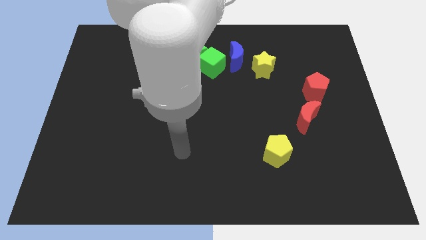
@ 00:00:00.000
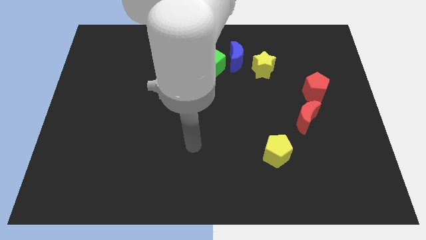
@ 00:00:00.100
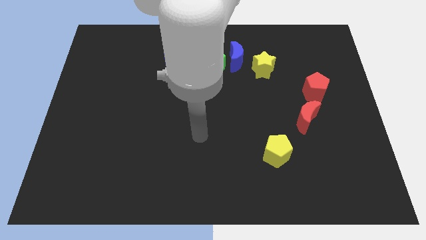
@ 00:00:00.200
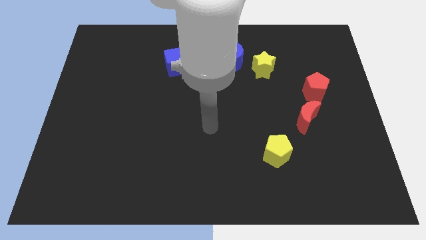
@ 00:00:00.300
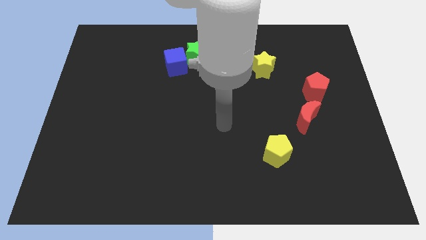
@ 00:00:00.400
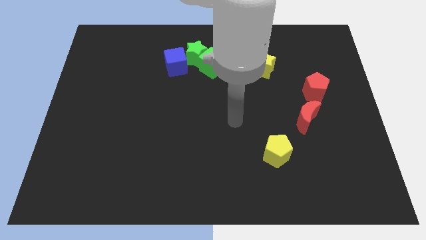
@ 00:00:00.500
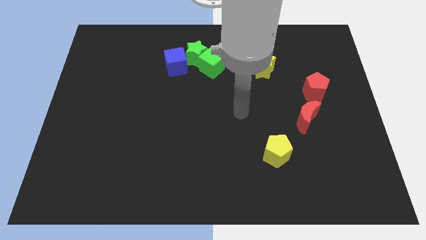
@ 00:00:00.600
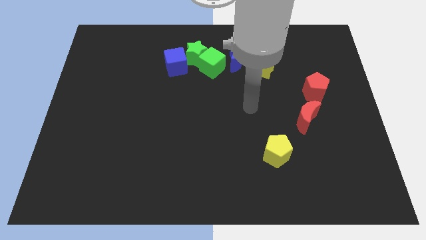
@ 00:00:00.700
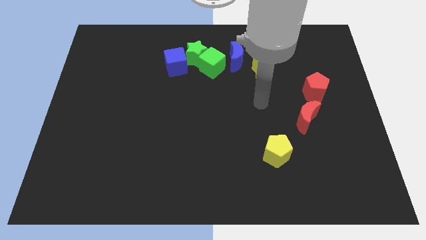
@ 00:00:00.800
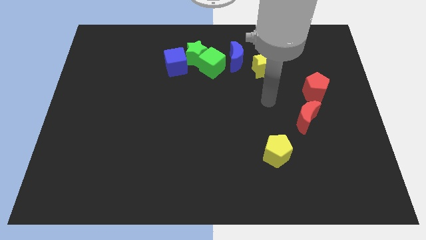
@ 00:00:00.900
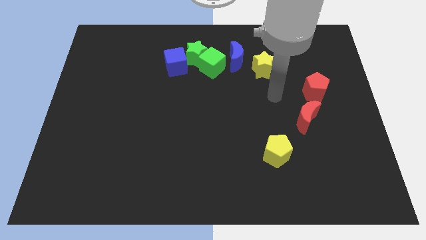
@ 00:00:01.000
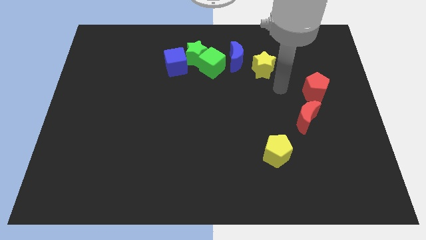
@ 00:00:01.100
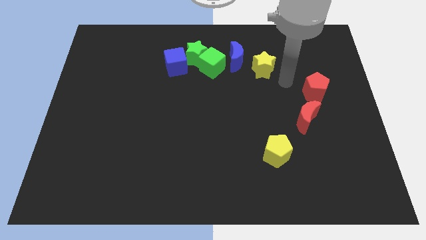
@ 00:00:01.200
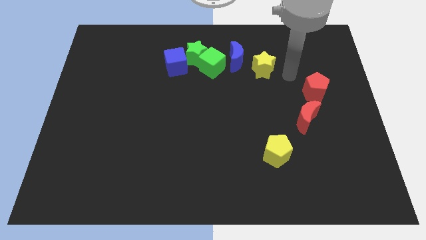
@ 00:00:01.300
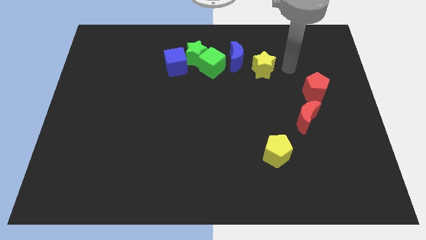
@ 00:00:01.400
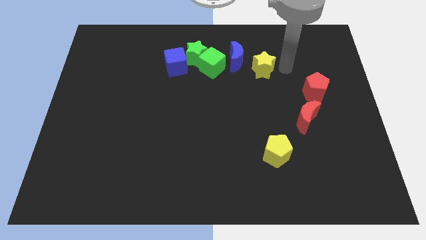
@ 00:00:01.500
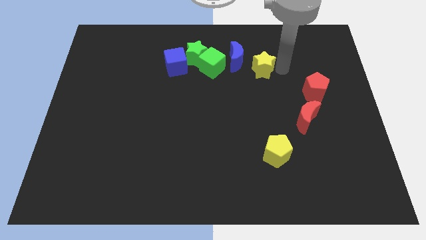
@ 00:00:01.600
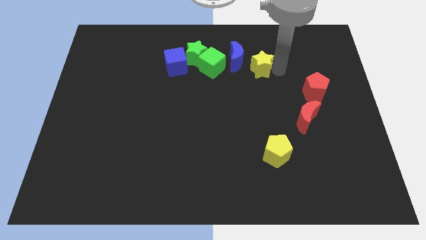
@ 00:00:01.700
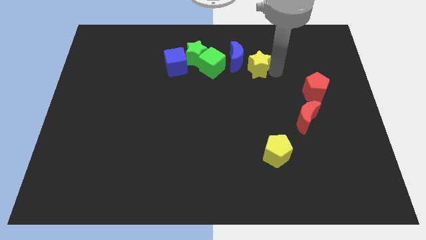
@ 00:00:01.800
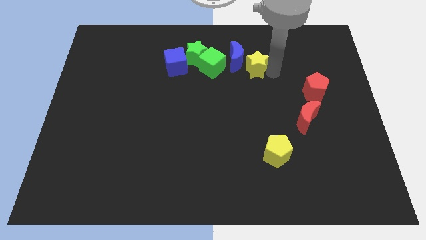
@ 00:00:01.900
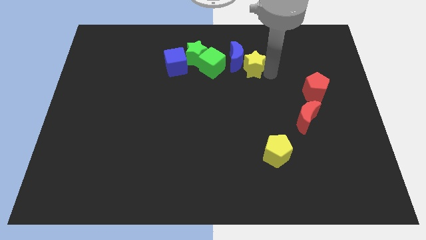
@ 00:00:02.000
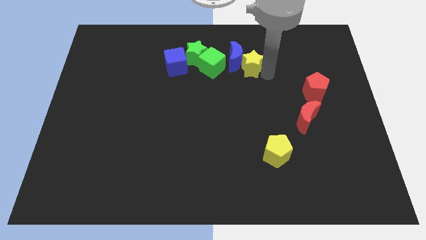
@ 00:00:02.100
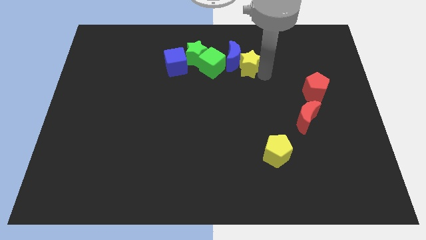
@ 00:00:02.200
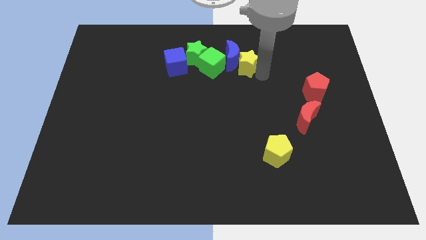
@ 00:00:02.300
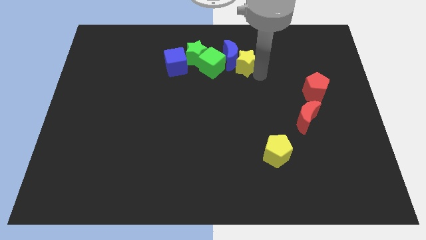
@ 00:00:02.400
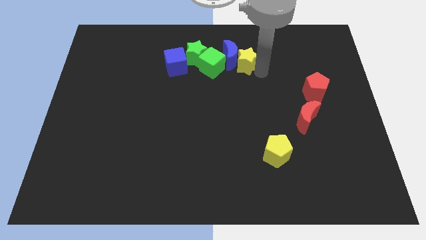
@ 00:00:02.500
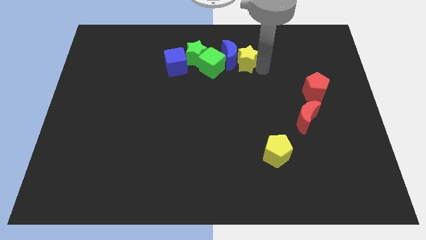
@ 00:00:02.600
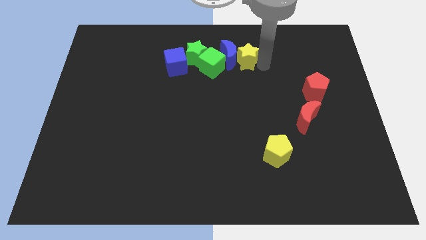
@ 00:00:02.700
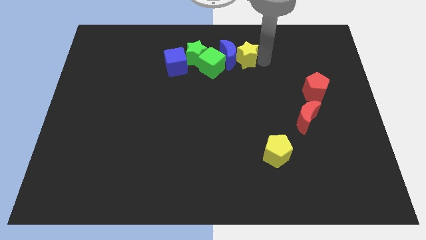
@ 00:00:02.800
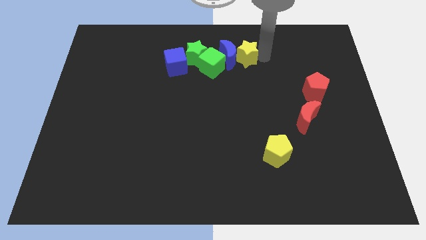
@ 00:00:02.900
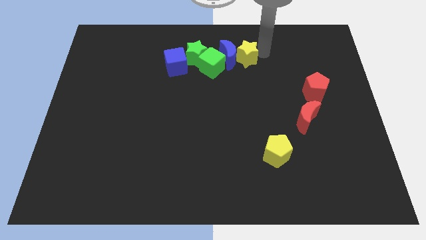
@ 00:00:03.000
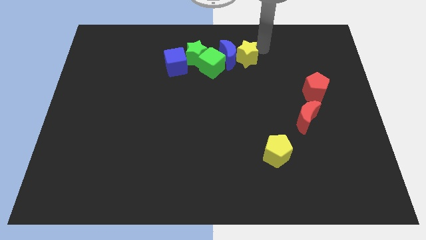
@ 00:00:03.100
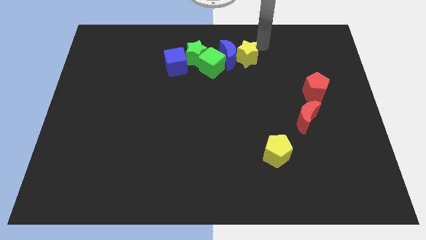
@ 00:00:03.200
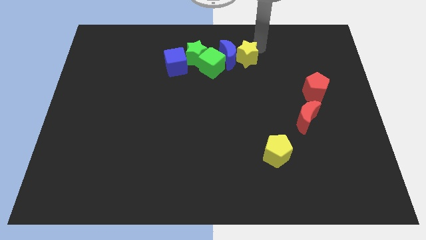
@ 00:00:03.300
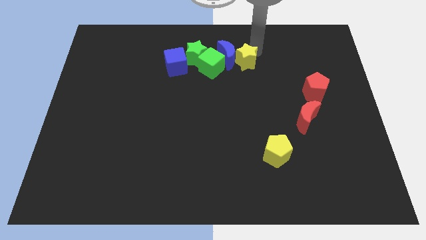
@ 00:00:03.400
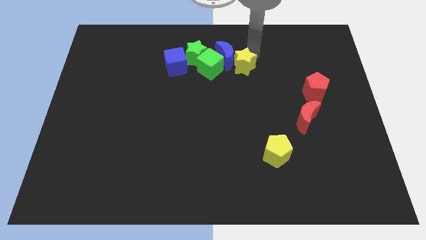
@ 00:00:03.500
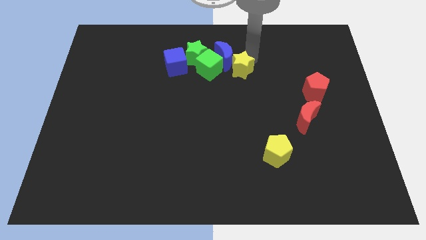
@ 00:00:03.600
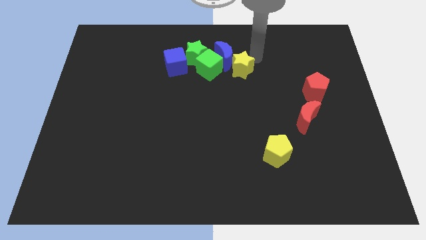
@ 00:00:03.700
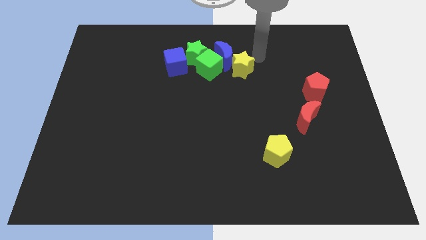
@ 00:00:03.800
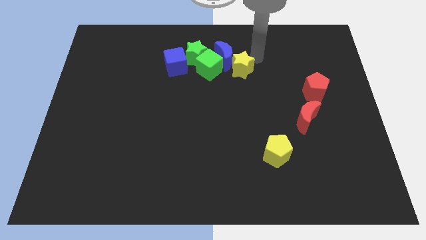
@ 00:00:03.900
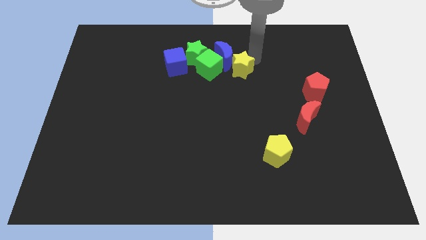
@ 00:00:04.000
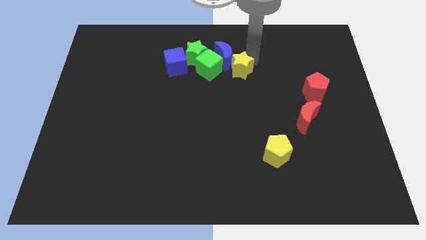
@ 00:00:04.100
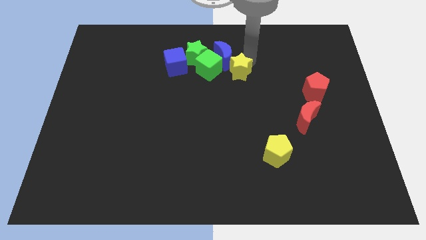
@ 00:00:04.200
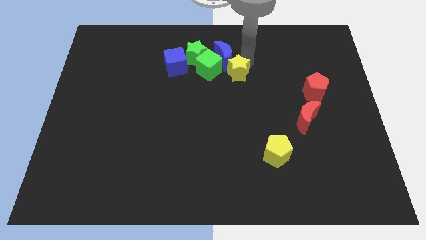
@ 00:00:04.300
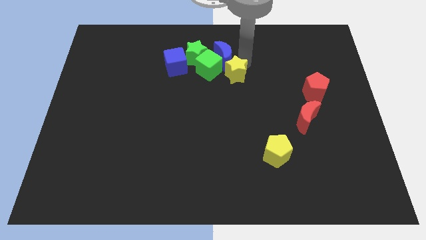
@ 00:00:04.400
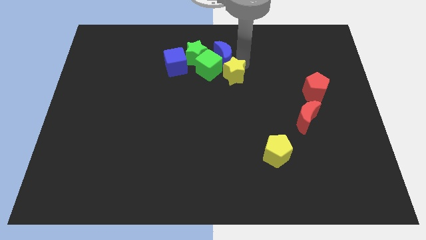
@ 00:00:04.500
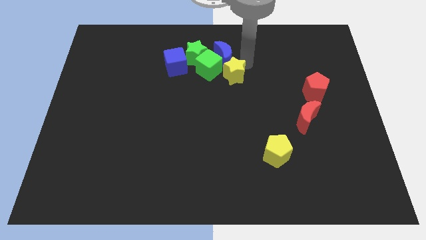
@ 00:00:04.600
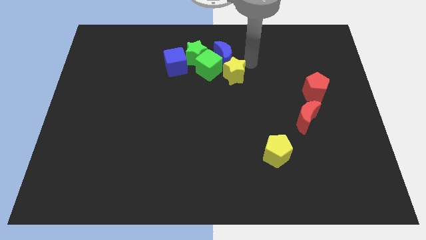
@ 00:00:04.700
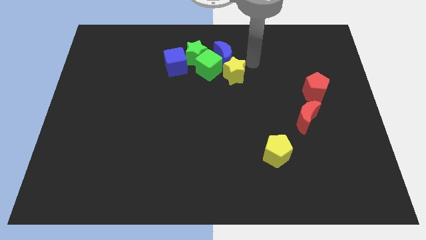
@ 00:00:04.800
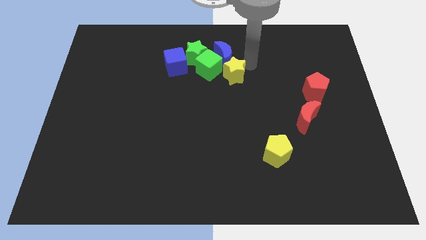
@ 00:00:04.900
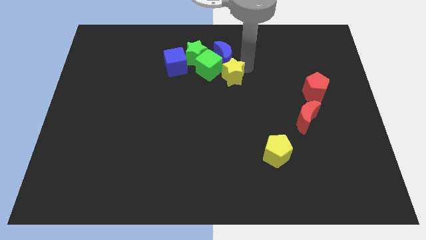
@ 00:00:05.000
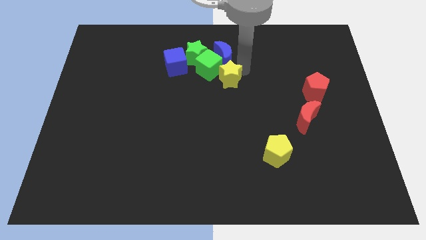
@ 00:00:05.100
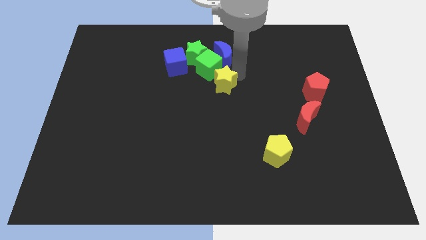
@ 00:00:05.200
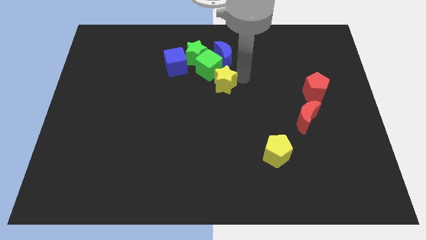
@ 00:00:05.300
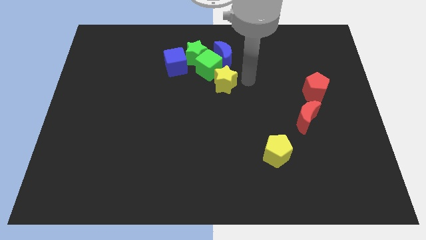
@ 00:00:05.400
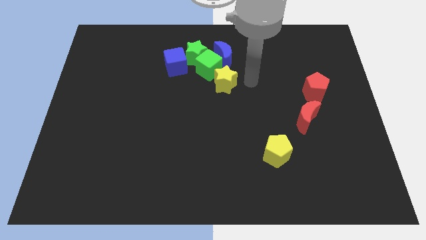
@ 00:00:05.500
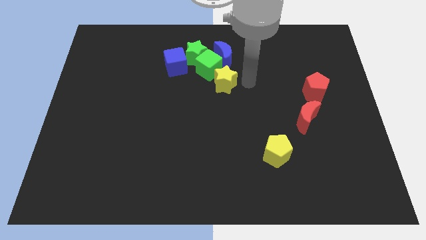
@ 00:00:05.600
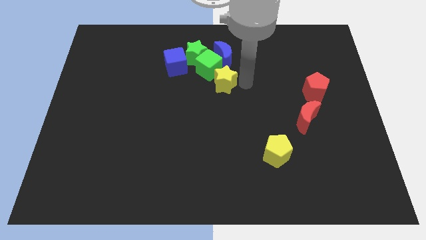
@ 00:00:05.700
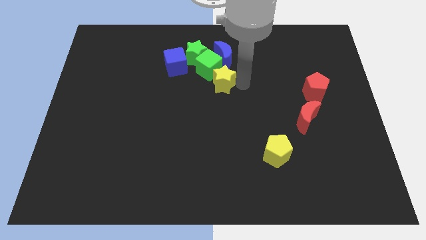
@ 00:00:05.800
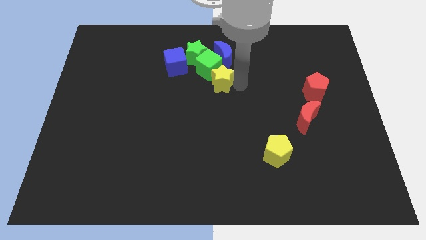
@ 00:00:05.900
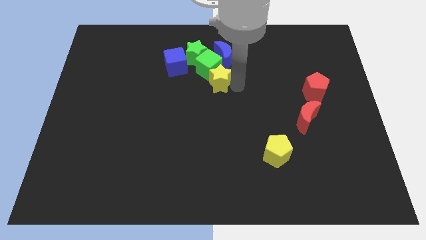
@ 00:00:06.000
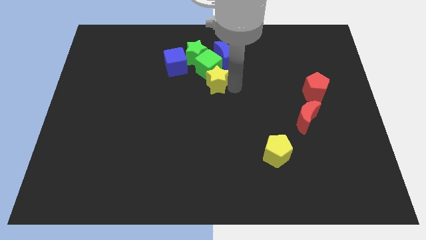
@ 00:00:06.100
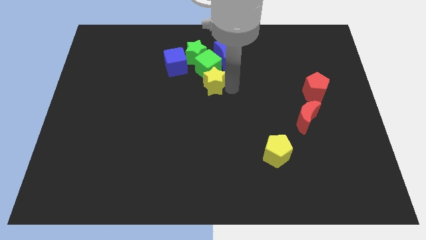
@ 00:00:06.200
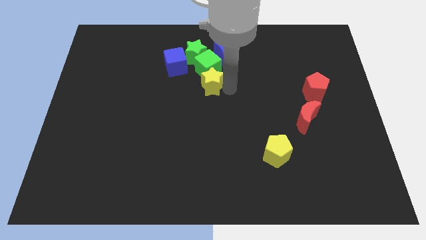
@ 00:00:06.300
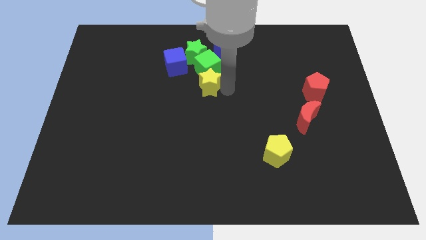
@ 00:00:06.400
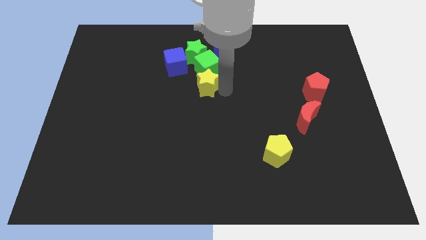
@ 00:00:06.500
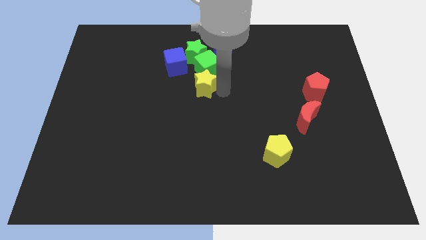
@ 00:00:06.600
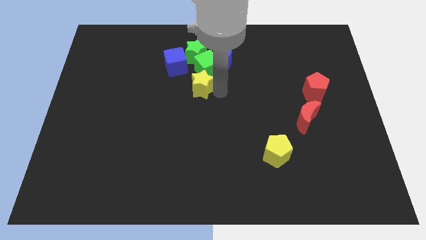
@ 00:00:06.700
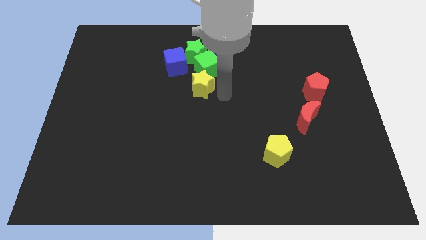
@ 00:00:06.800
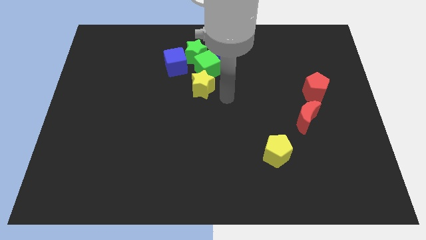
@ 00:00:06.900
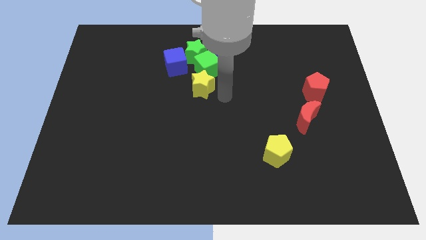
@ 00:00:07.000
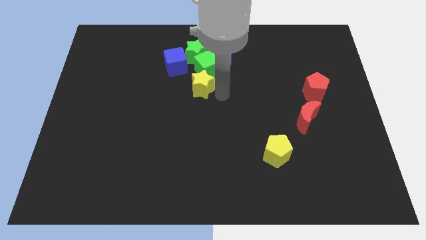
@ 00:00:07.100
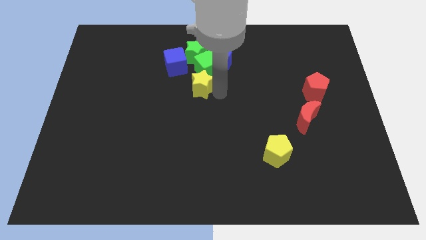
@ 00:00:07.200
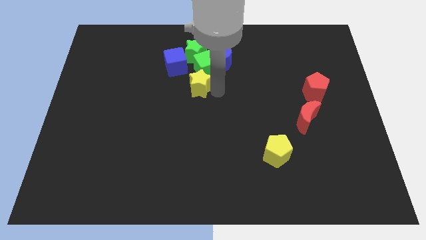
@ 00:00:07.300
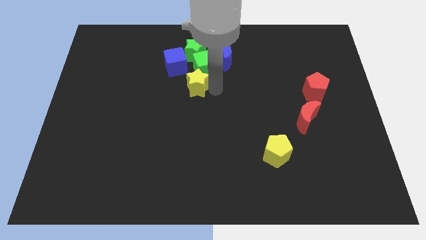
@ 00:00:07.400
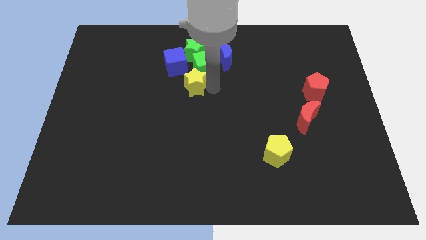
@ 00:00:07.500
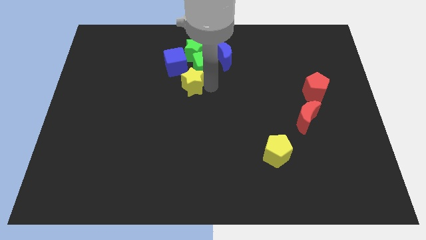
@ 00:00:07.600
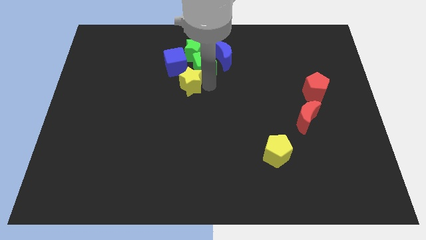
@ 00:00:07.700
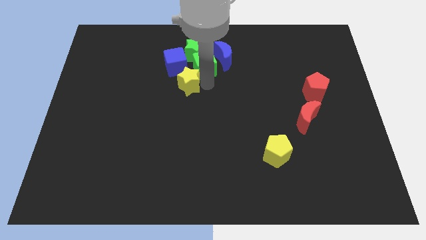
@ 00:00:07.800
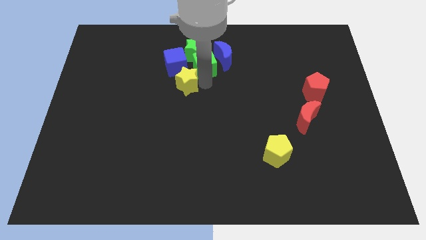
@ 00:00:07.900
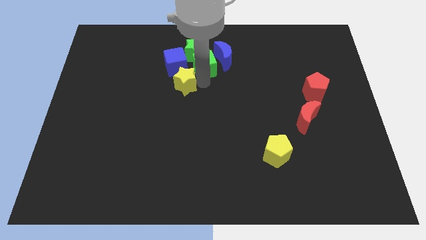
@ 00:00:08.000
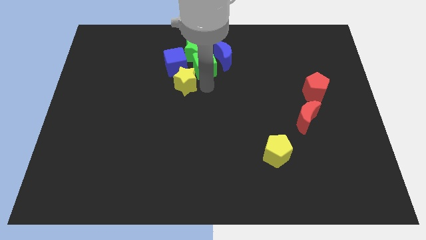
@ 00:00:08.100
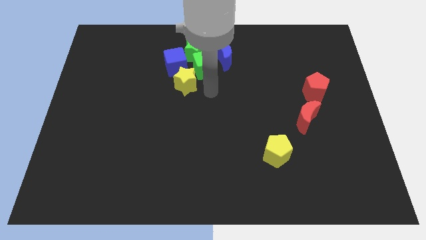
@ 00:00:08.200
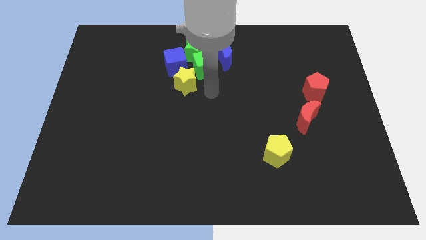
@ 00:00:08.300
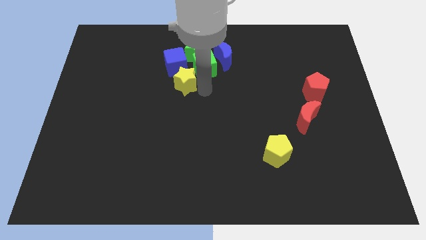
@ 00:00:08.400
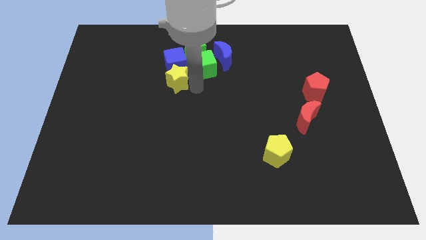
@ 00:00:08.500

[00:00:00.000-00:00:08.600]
move the yellow star to the left
